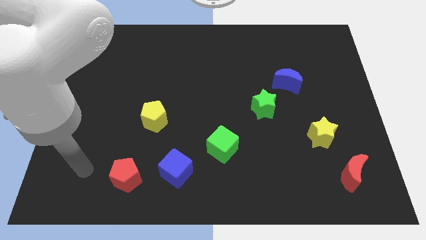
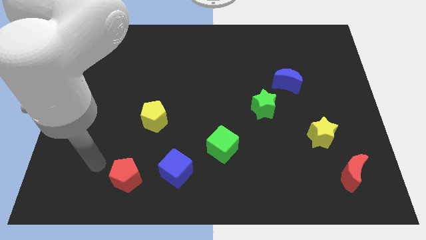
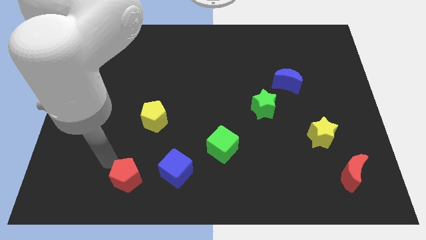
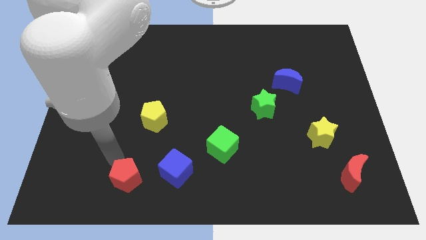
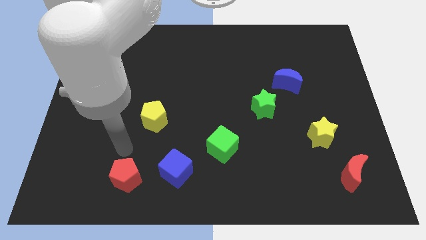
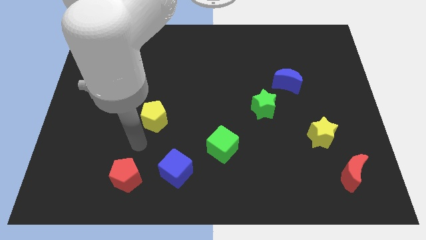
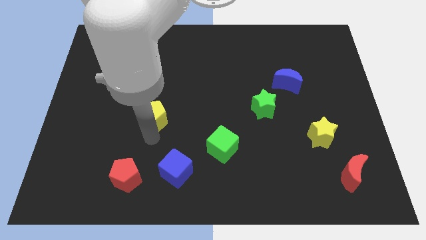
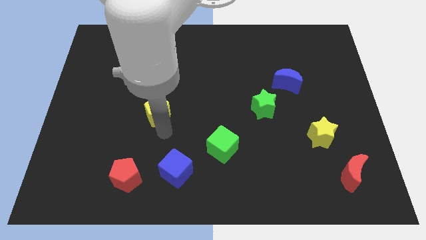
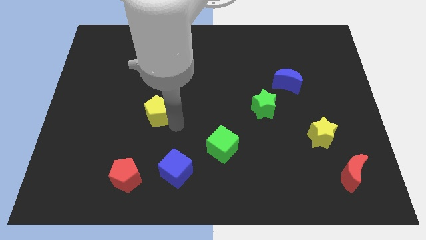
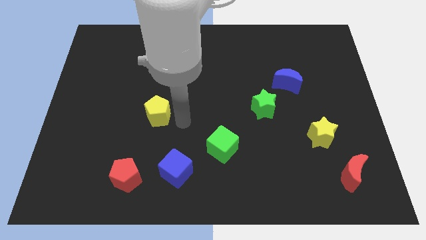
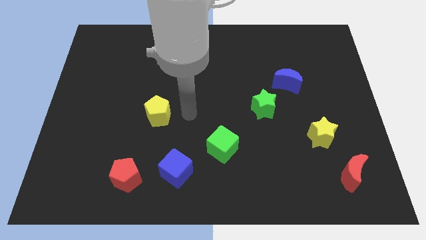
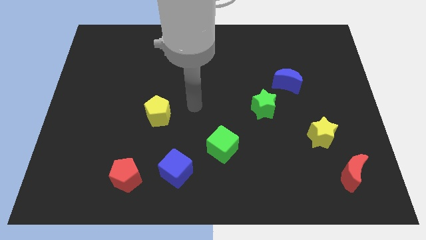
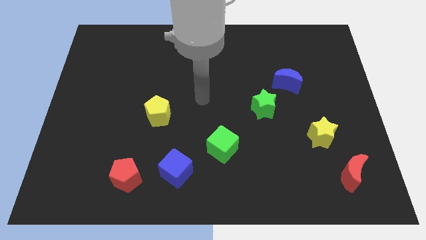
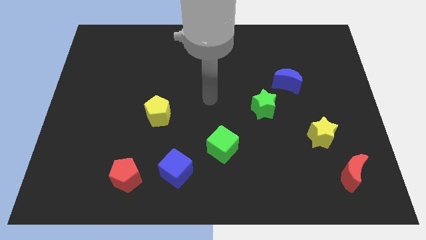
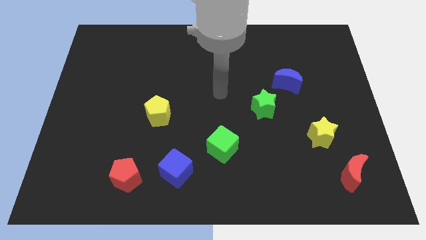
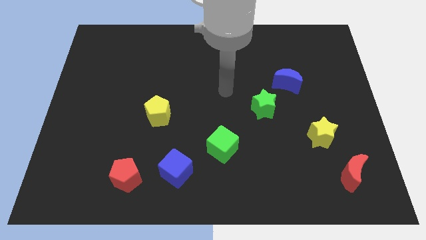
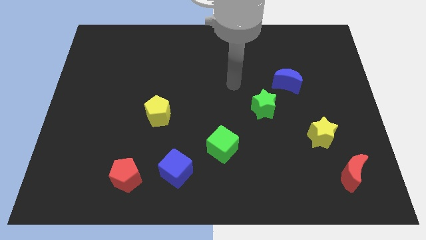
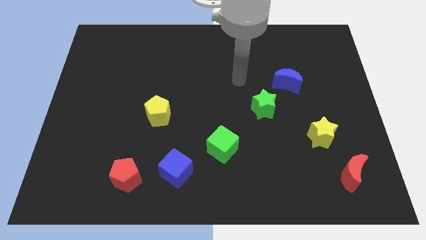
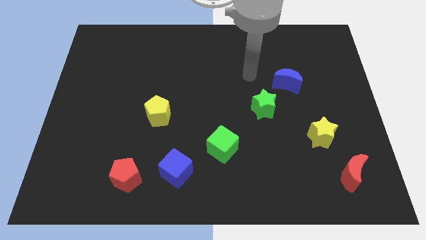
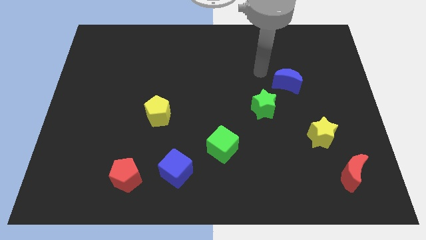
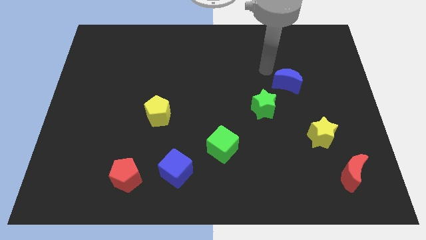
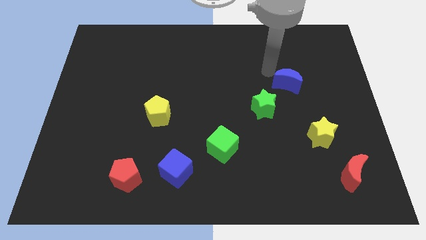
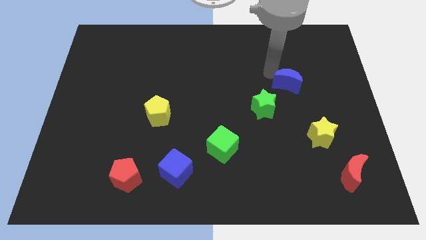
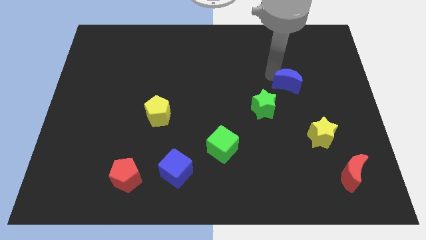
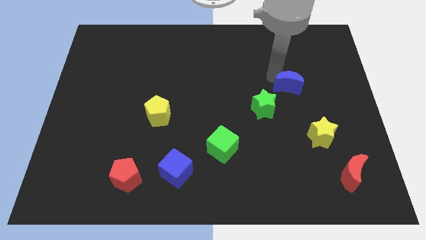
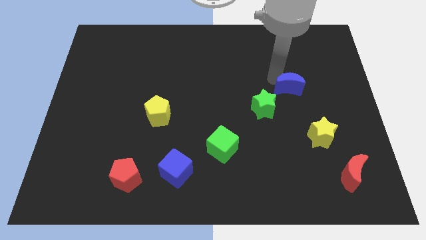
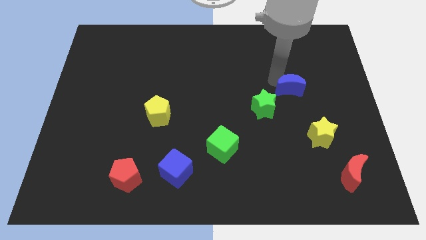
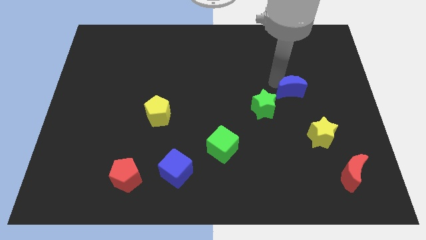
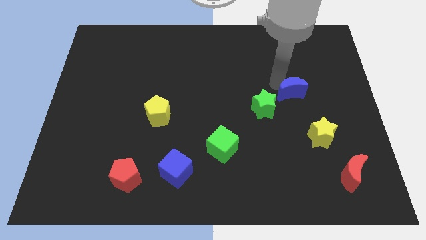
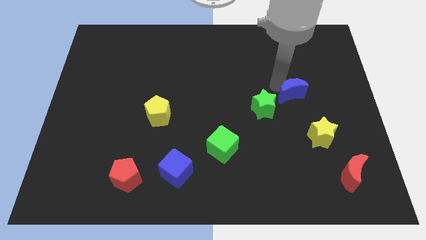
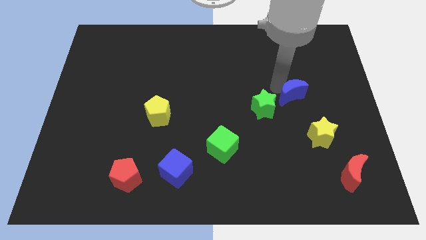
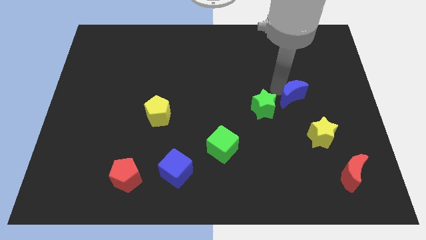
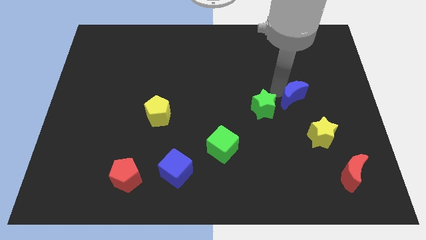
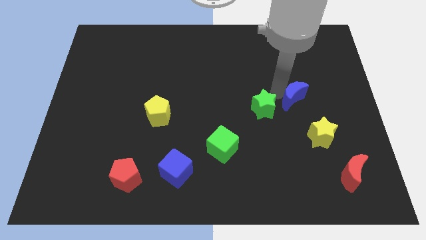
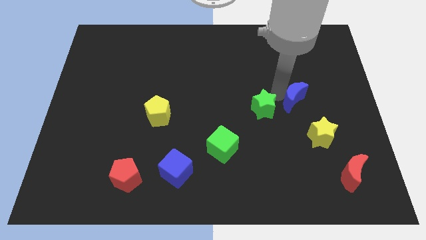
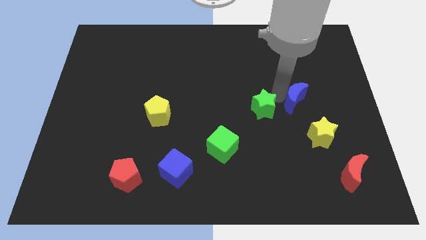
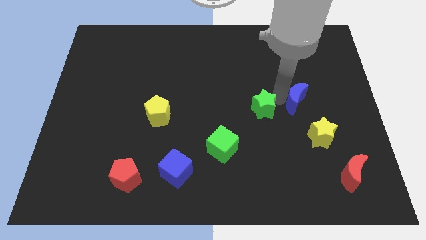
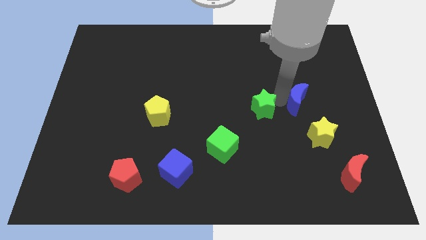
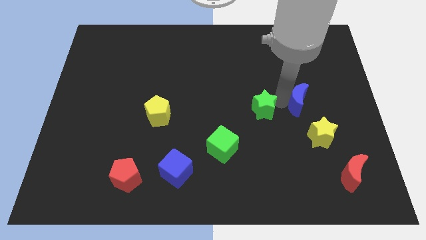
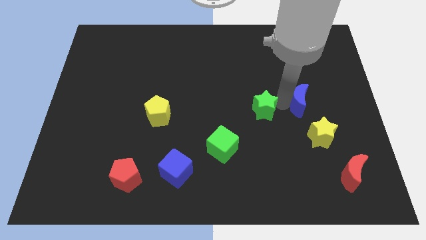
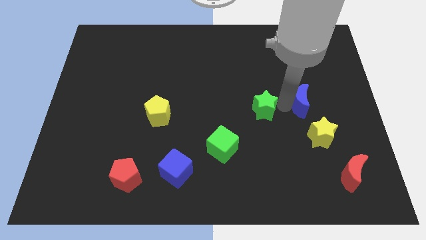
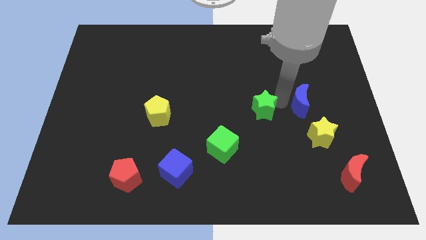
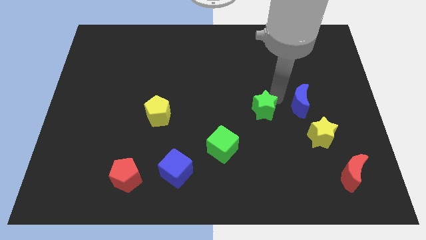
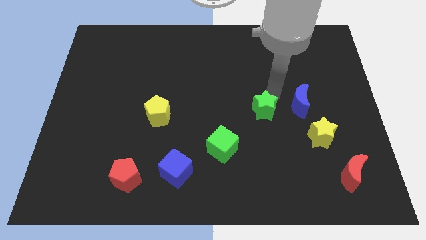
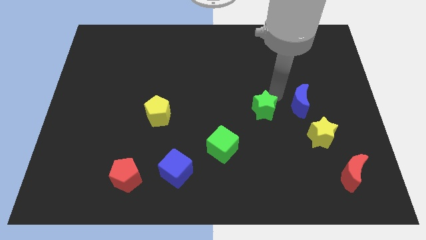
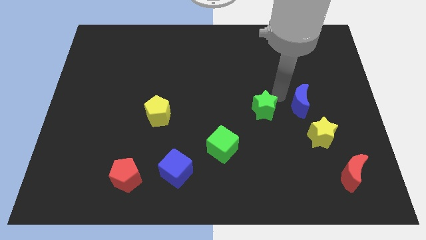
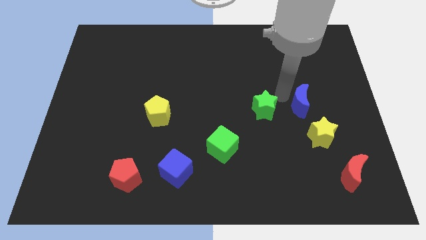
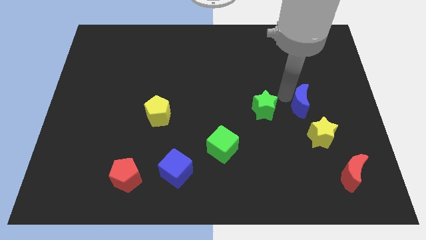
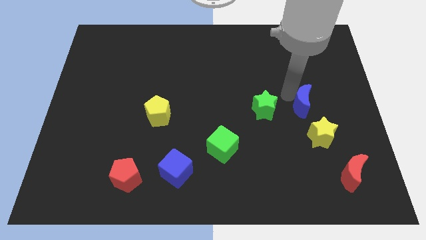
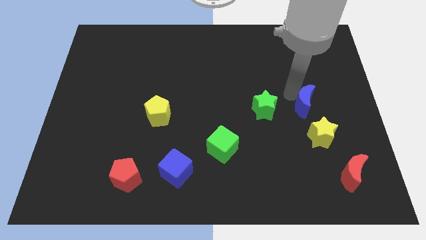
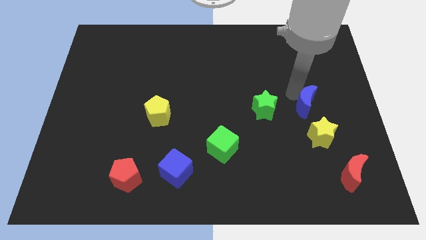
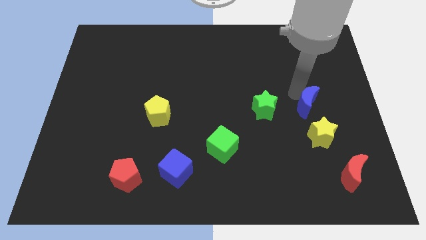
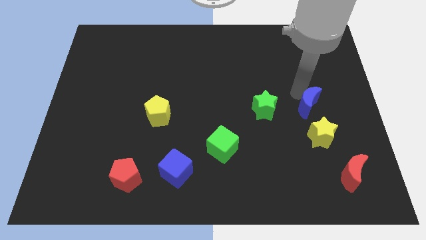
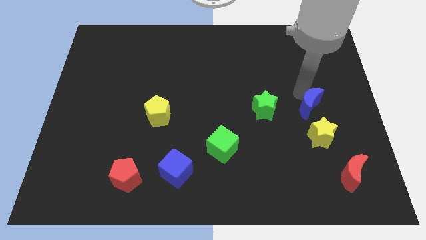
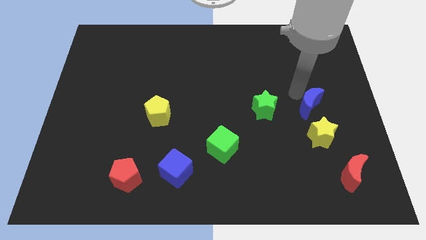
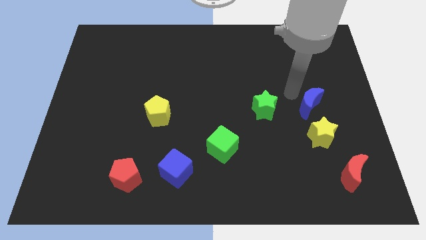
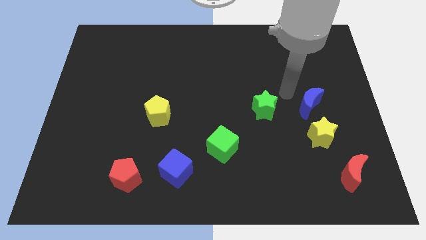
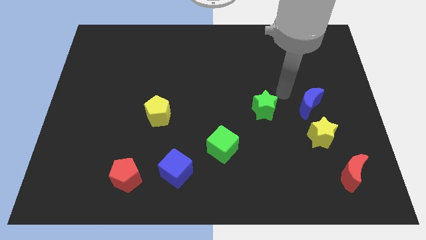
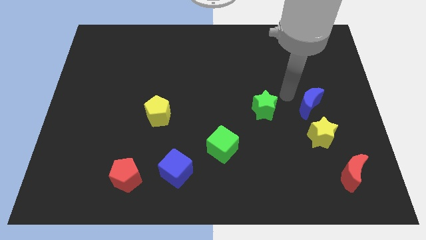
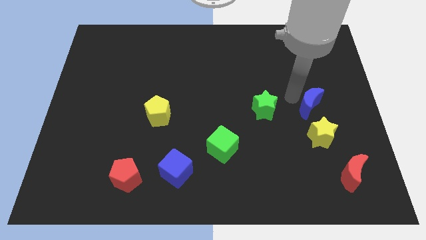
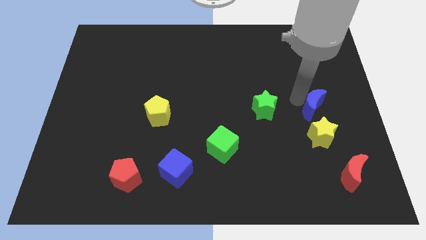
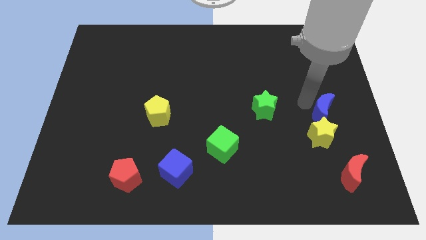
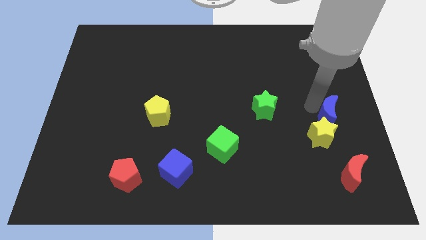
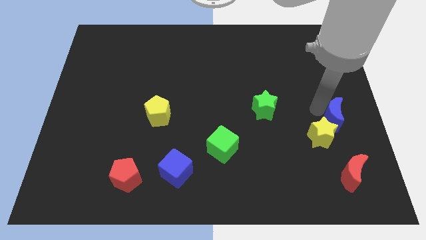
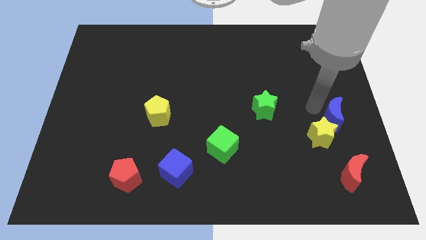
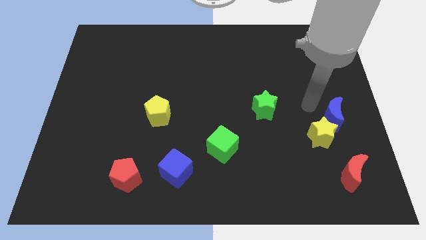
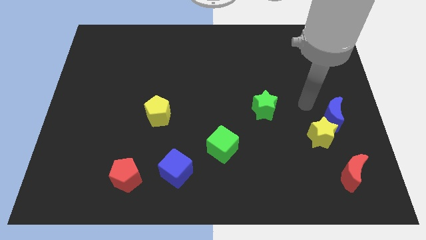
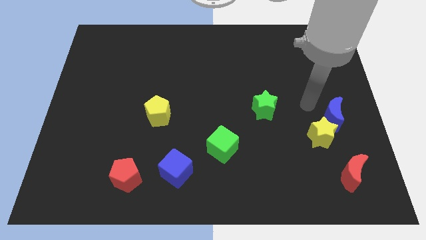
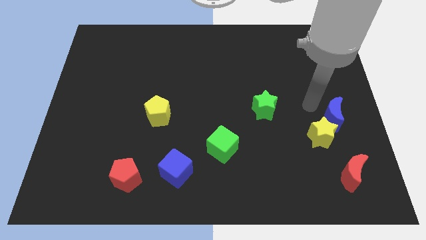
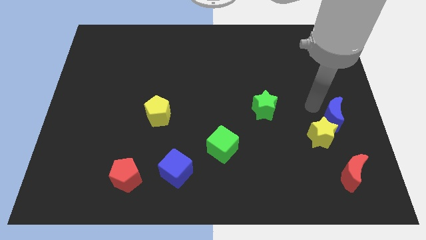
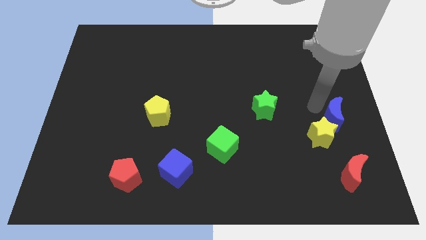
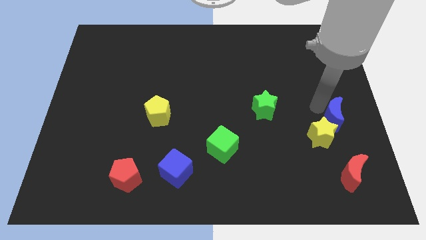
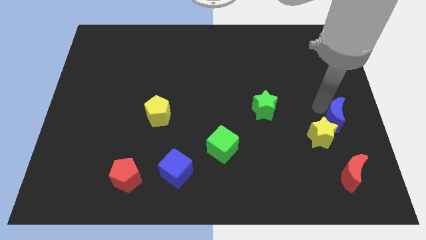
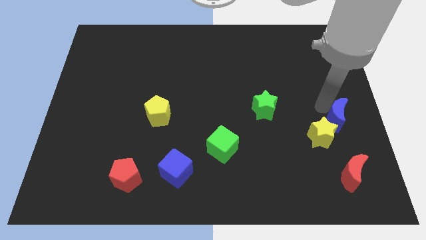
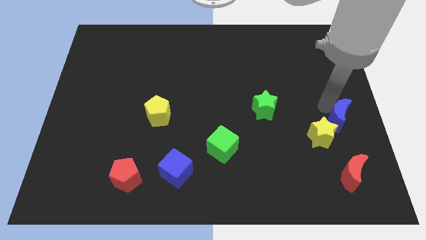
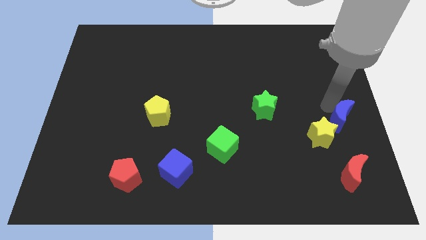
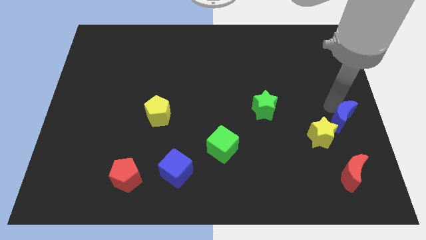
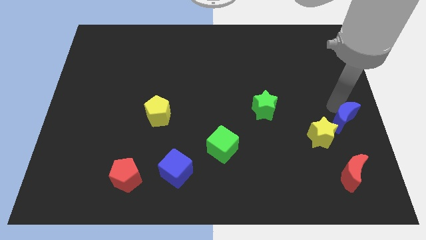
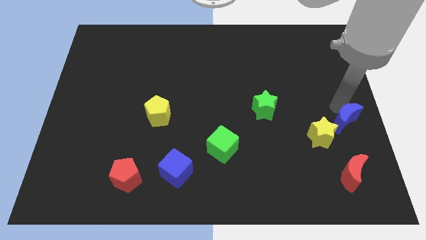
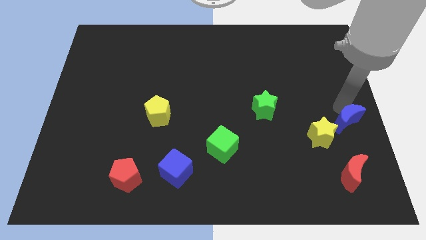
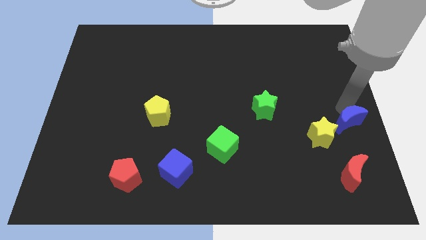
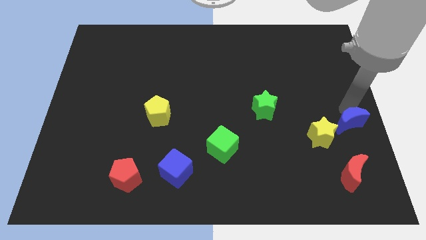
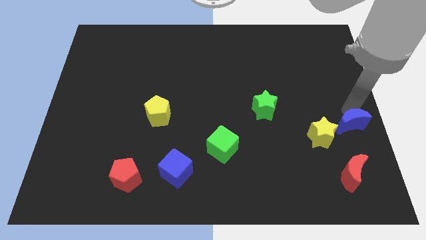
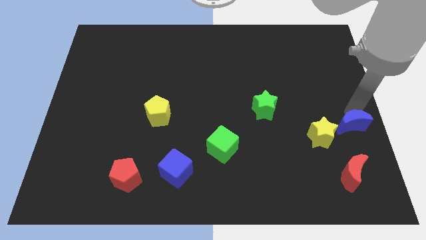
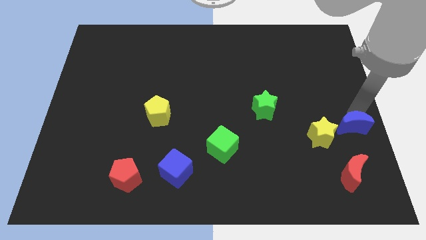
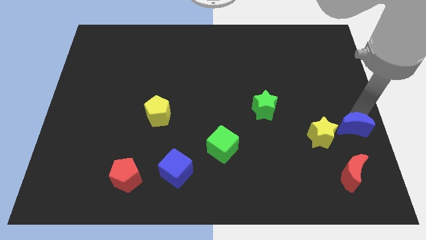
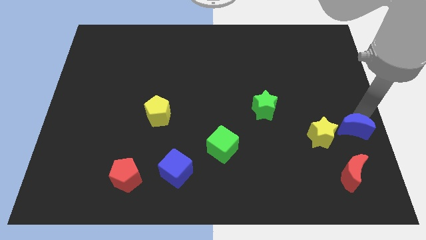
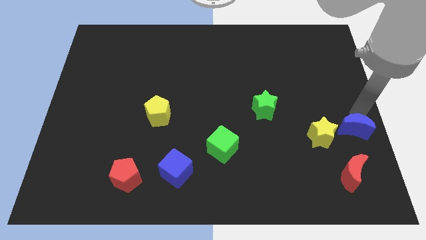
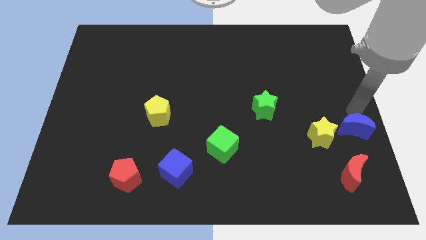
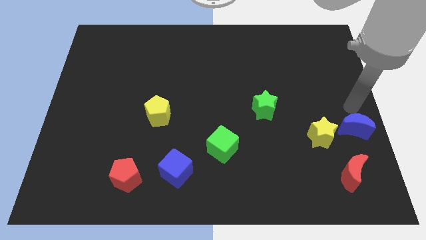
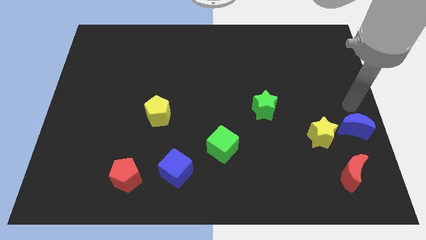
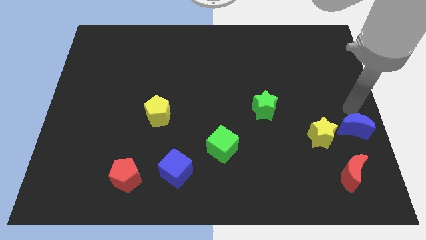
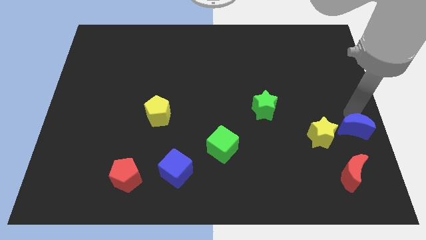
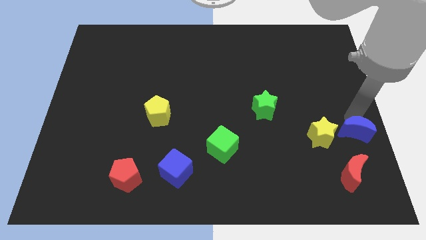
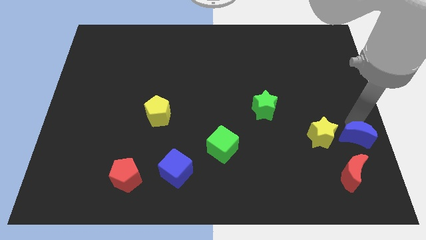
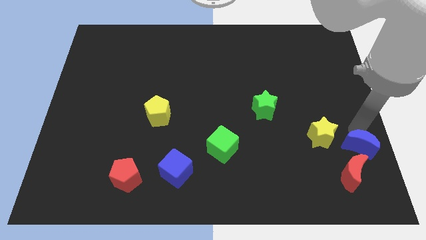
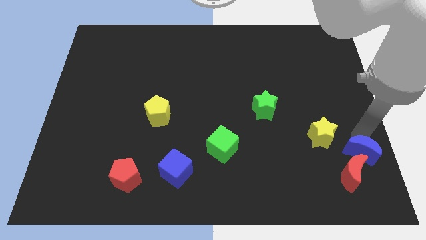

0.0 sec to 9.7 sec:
put the blue moon towards the red moon
